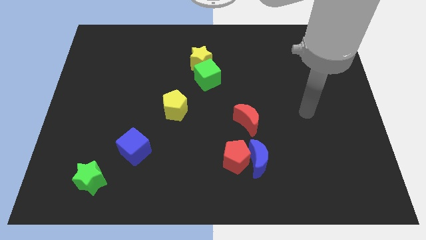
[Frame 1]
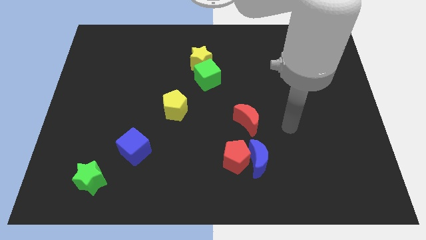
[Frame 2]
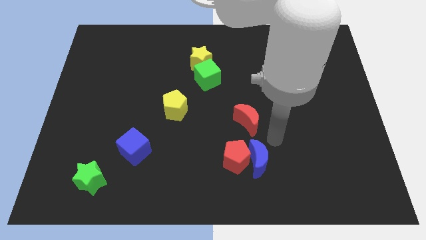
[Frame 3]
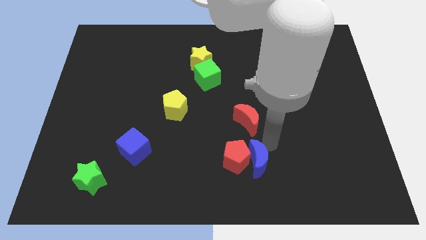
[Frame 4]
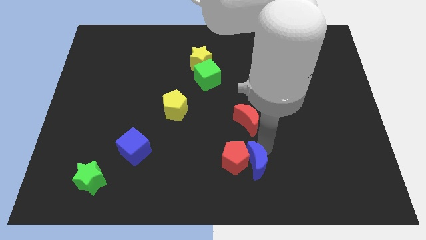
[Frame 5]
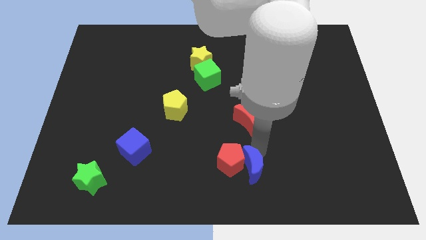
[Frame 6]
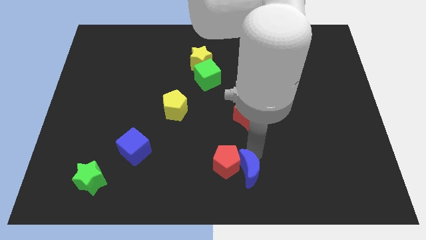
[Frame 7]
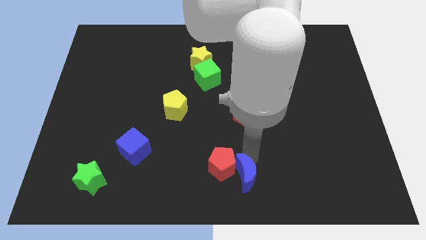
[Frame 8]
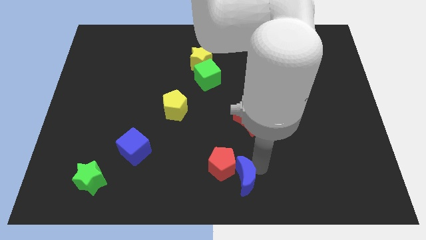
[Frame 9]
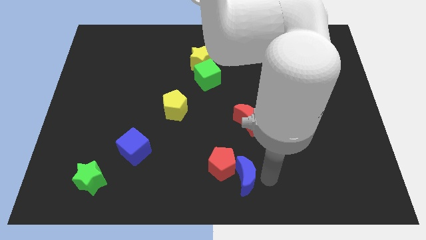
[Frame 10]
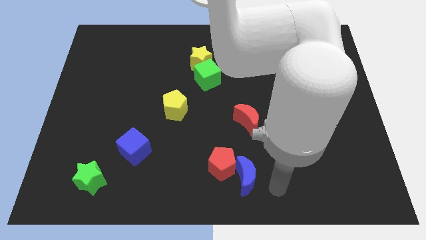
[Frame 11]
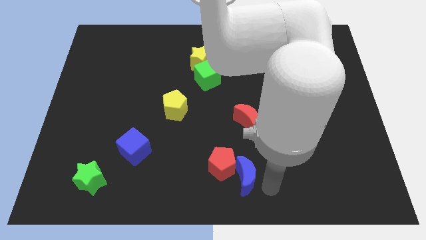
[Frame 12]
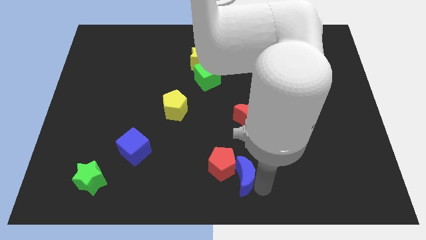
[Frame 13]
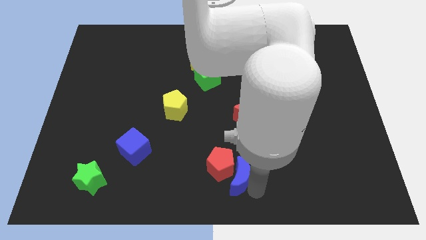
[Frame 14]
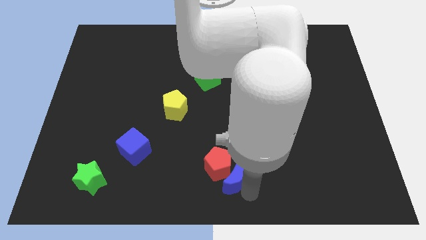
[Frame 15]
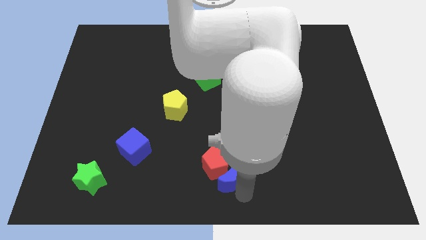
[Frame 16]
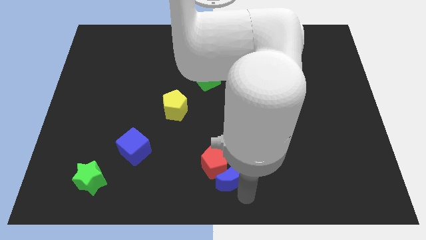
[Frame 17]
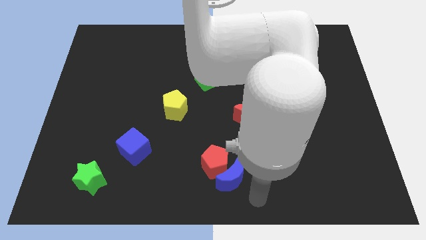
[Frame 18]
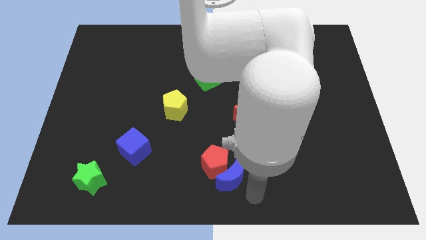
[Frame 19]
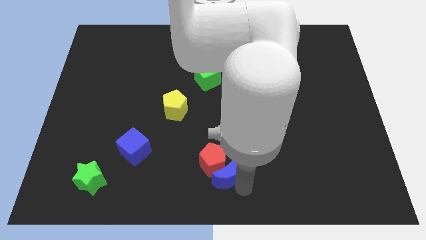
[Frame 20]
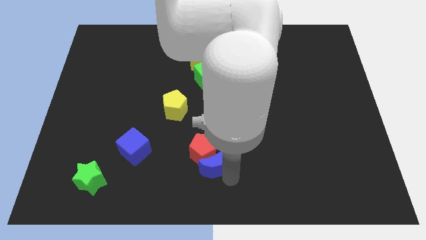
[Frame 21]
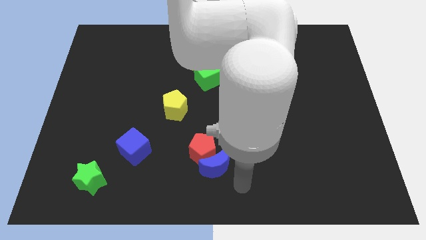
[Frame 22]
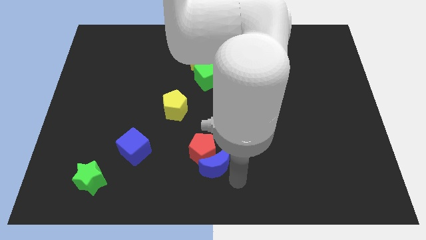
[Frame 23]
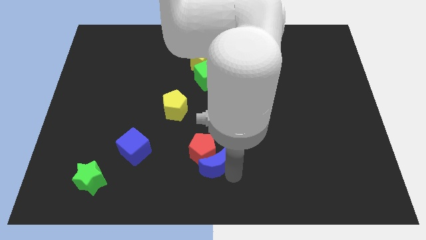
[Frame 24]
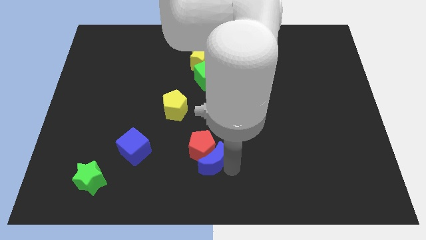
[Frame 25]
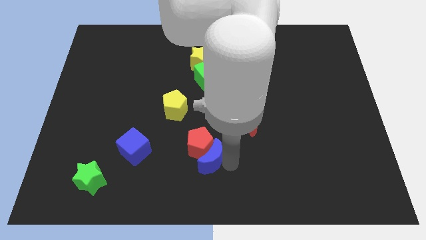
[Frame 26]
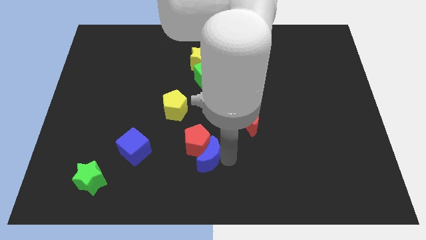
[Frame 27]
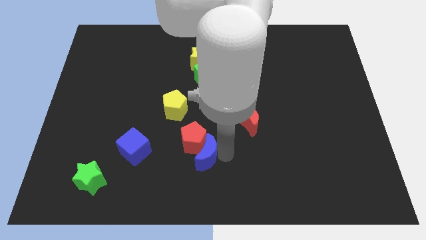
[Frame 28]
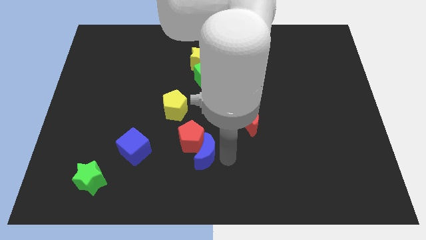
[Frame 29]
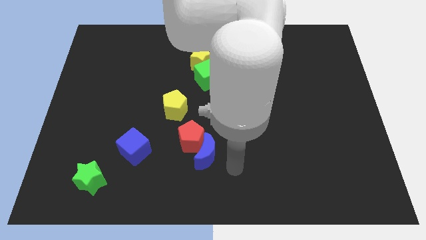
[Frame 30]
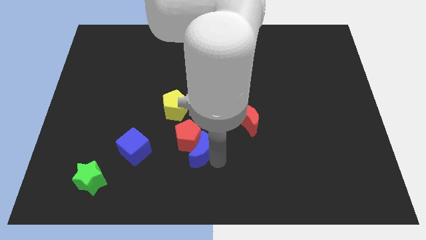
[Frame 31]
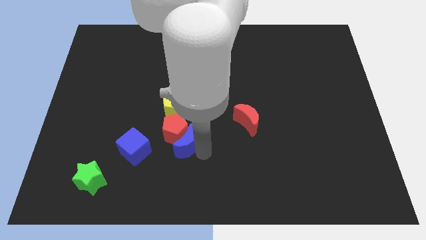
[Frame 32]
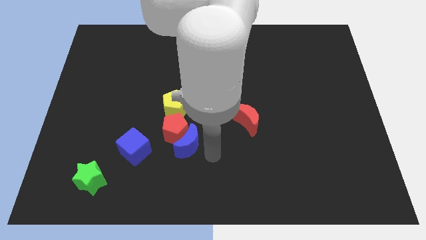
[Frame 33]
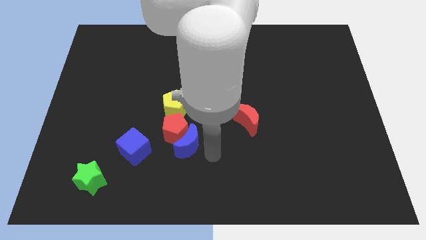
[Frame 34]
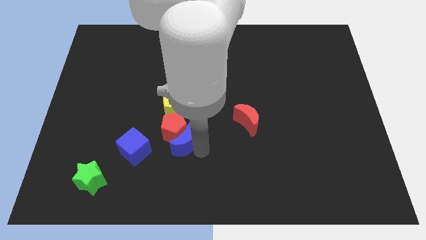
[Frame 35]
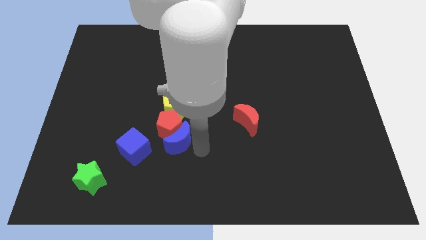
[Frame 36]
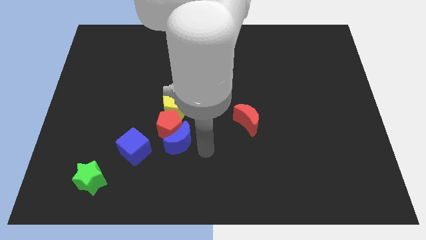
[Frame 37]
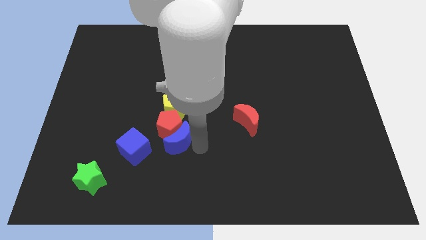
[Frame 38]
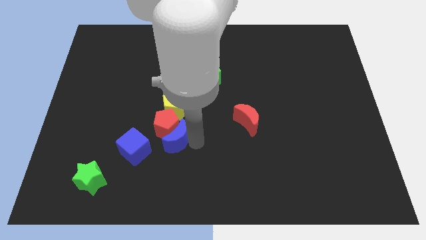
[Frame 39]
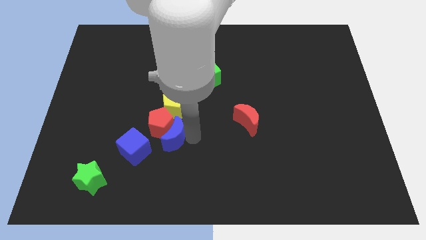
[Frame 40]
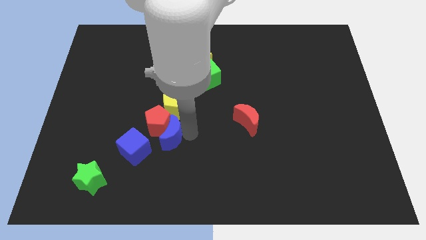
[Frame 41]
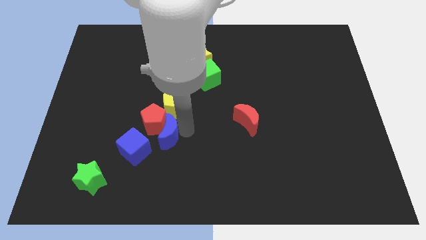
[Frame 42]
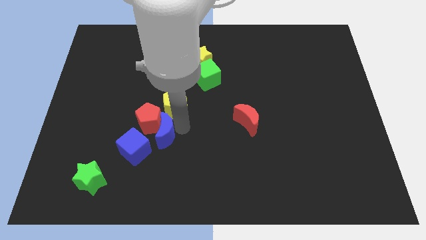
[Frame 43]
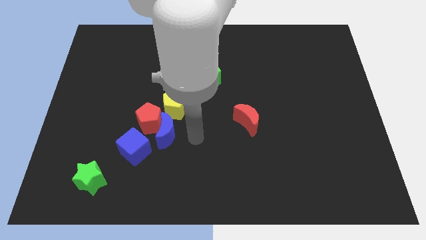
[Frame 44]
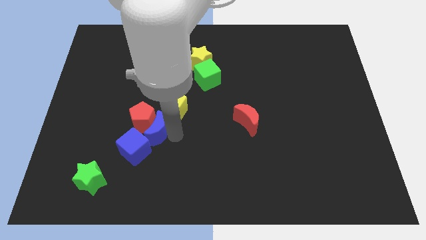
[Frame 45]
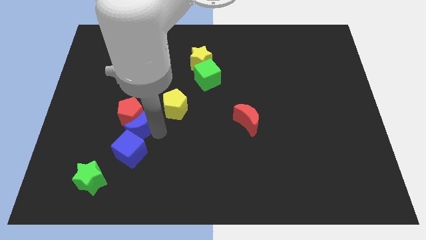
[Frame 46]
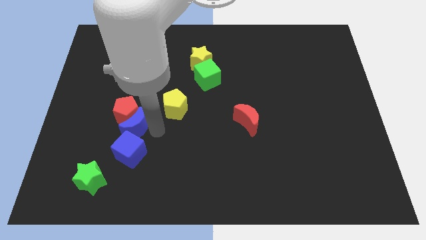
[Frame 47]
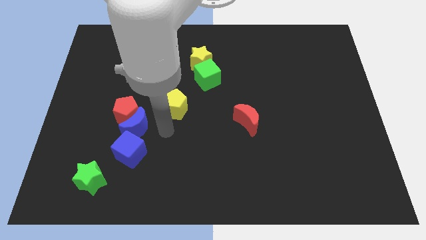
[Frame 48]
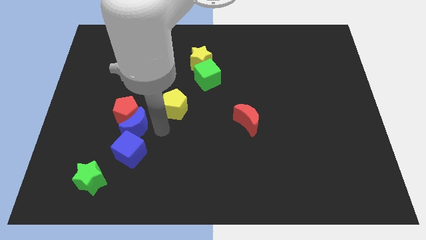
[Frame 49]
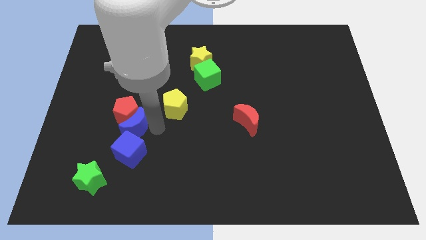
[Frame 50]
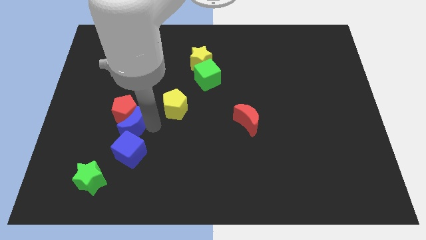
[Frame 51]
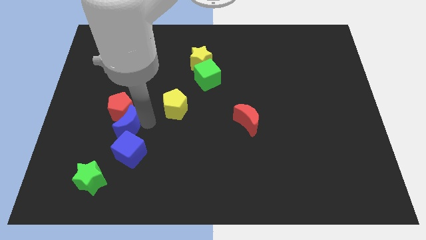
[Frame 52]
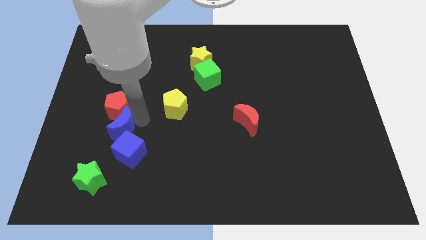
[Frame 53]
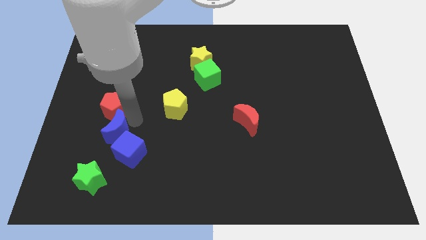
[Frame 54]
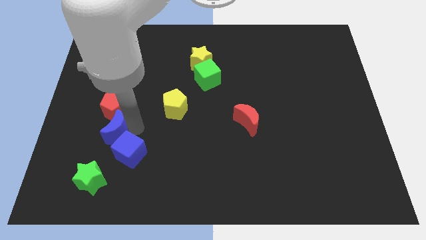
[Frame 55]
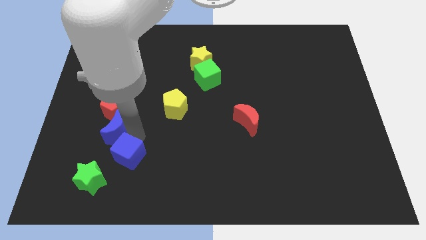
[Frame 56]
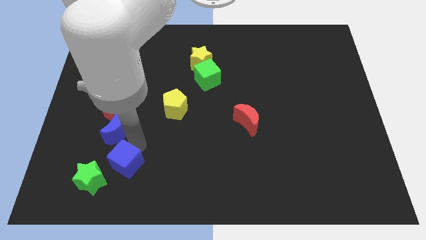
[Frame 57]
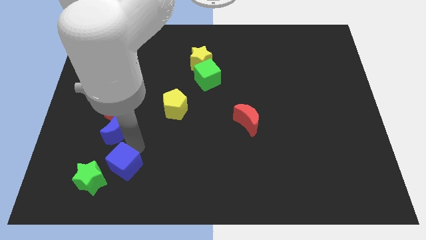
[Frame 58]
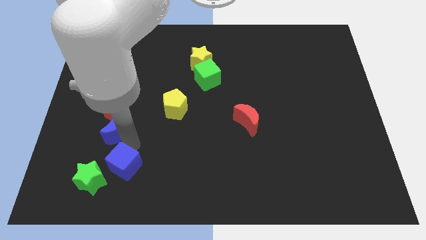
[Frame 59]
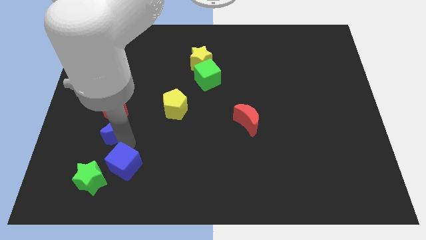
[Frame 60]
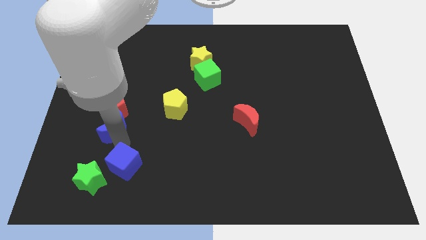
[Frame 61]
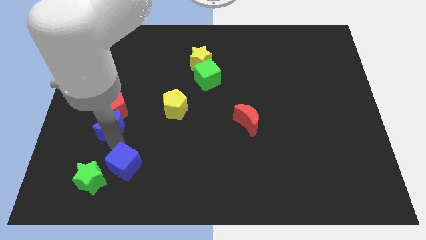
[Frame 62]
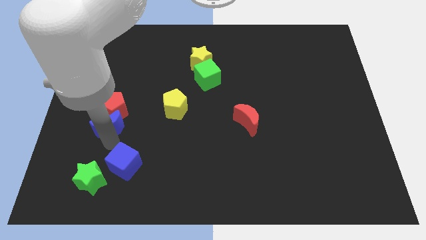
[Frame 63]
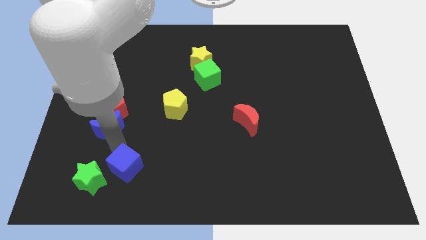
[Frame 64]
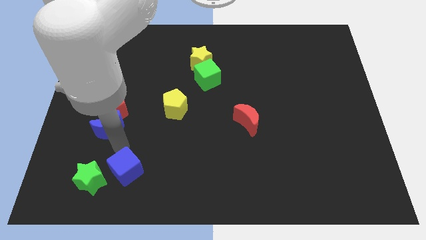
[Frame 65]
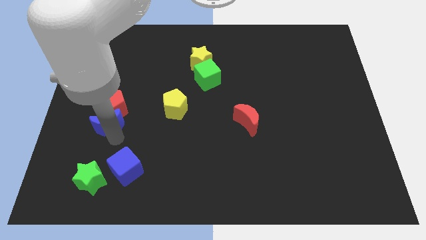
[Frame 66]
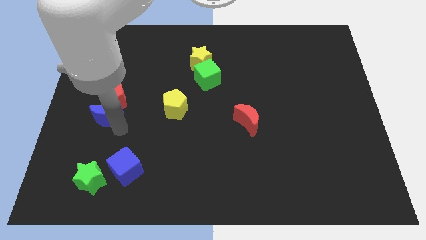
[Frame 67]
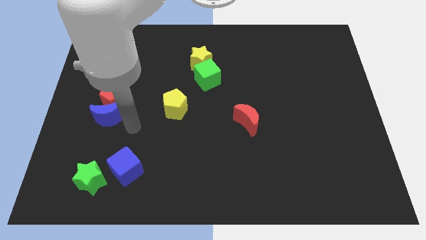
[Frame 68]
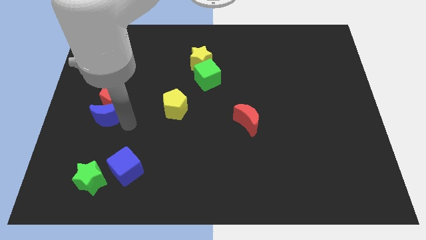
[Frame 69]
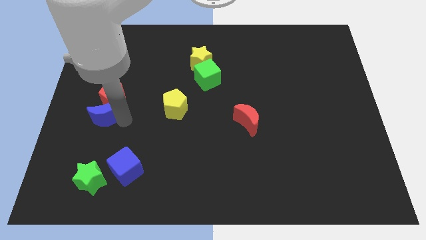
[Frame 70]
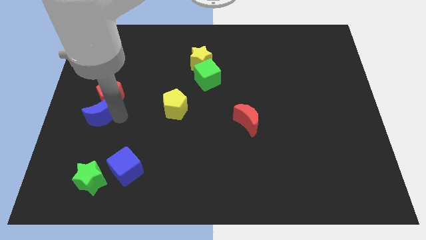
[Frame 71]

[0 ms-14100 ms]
move the blue moon to the center left
